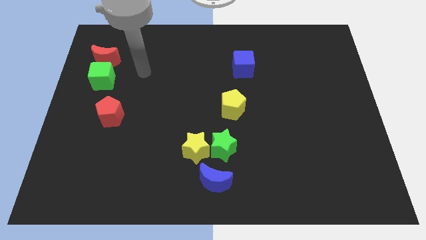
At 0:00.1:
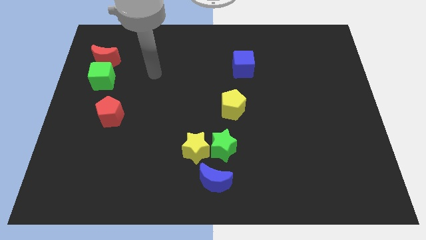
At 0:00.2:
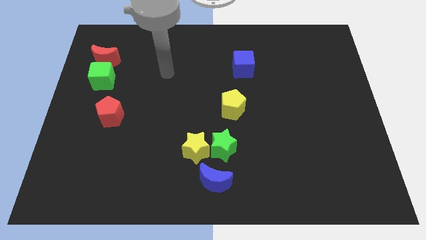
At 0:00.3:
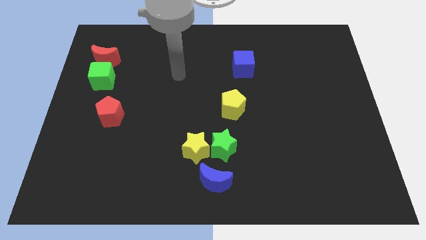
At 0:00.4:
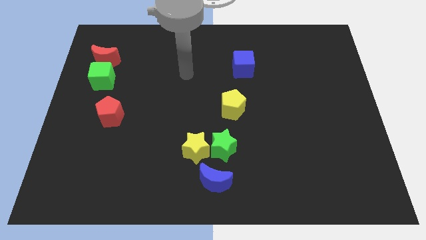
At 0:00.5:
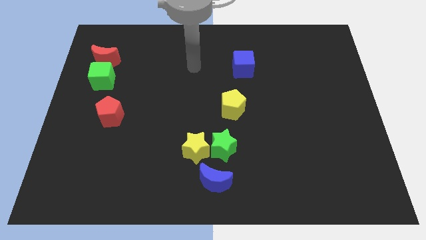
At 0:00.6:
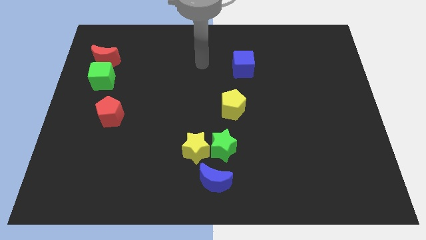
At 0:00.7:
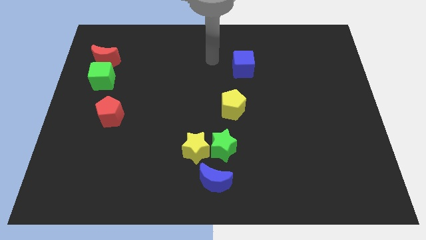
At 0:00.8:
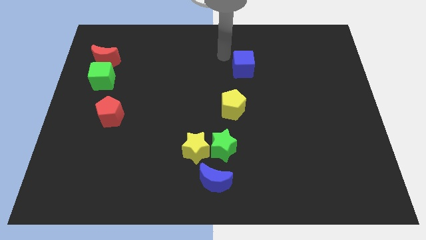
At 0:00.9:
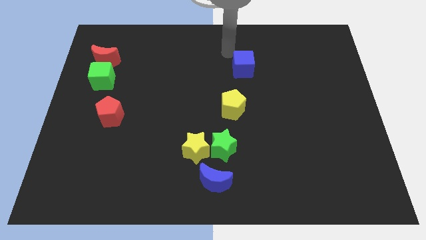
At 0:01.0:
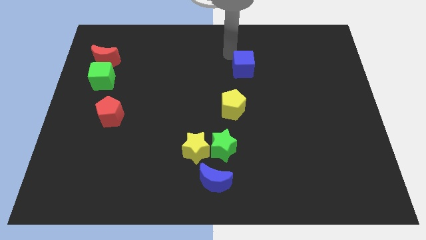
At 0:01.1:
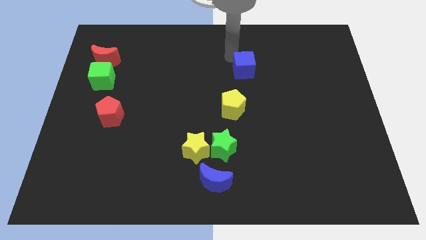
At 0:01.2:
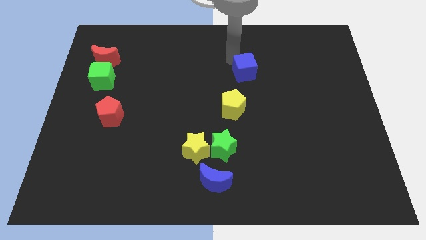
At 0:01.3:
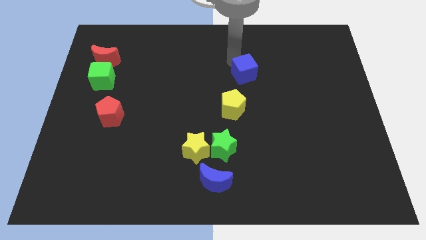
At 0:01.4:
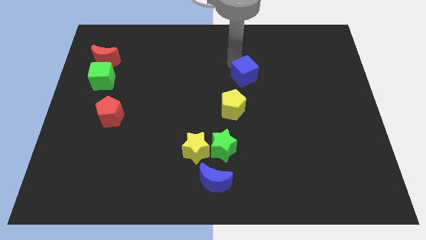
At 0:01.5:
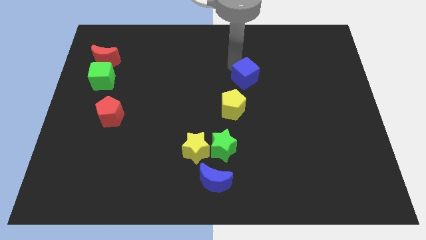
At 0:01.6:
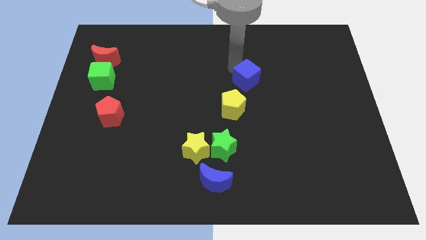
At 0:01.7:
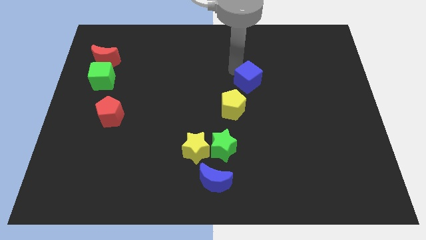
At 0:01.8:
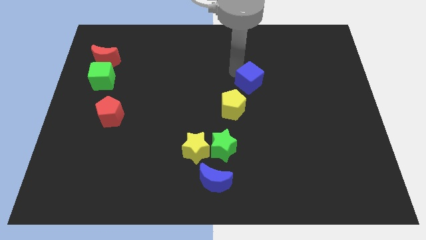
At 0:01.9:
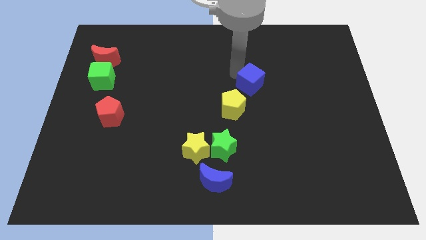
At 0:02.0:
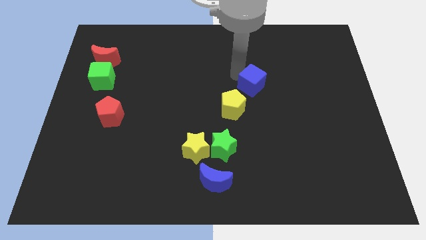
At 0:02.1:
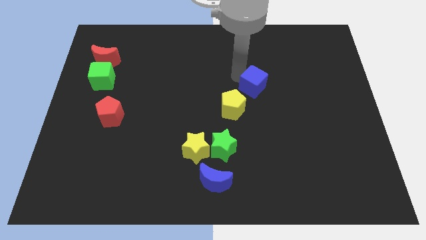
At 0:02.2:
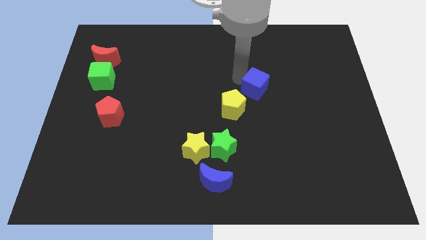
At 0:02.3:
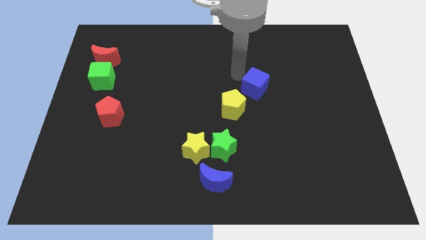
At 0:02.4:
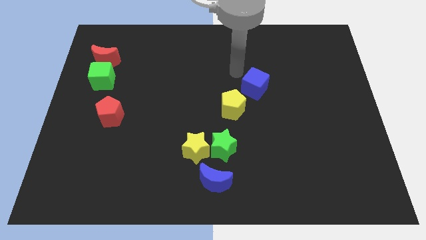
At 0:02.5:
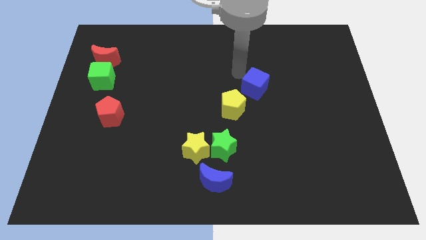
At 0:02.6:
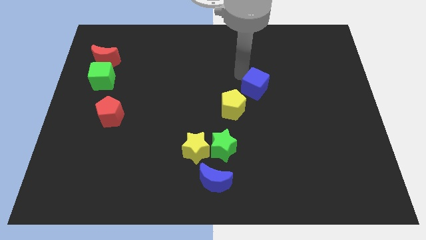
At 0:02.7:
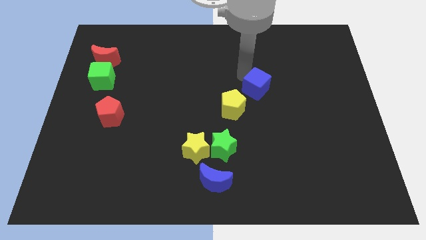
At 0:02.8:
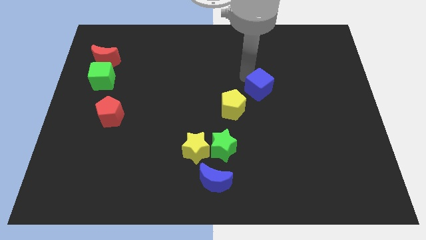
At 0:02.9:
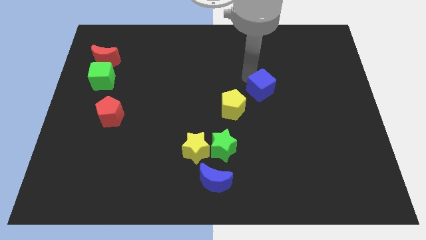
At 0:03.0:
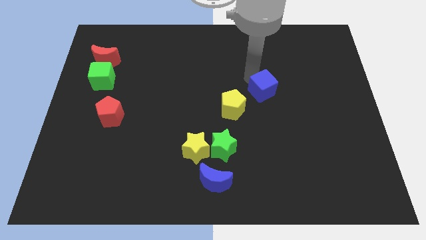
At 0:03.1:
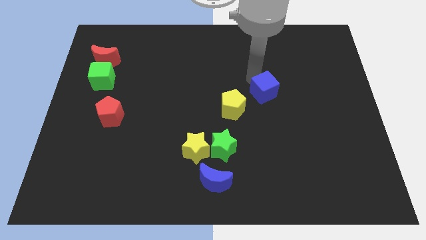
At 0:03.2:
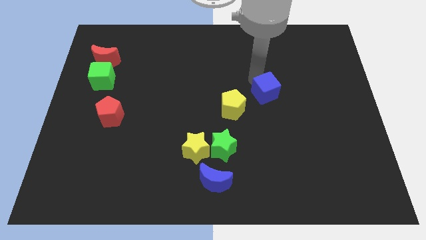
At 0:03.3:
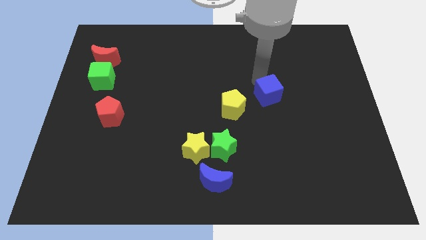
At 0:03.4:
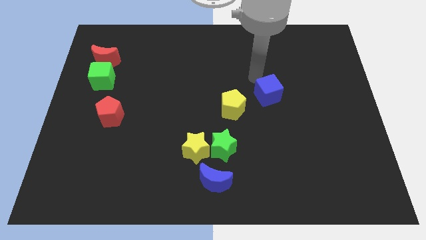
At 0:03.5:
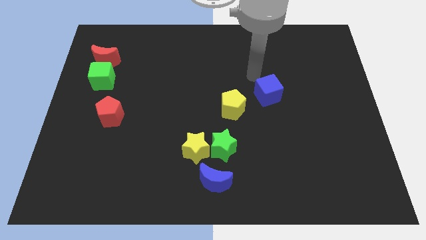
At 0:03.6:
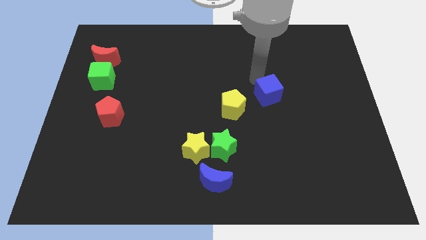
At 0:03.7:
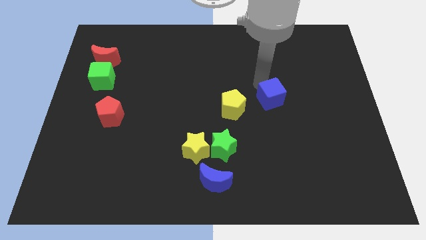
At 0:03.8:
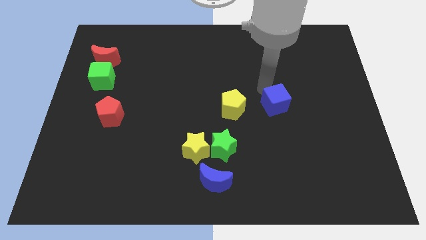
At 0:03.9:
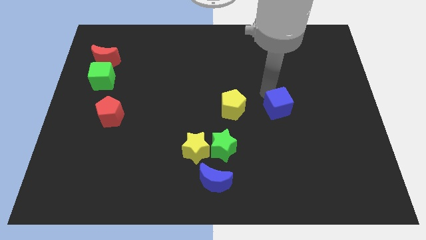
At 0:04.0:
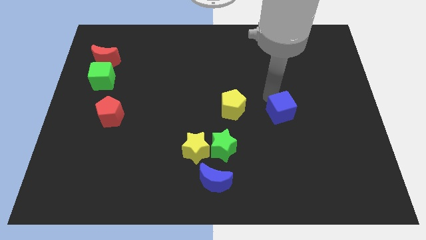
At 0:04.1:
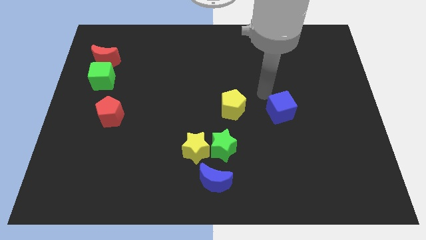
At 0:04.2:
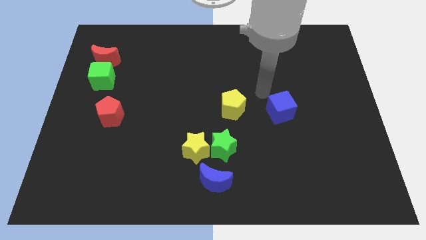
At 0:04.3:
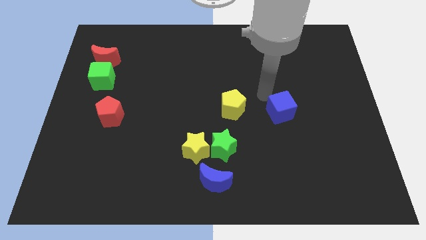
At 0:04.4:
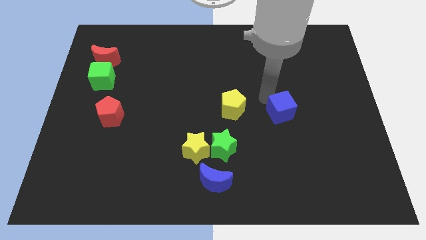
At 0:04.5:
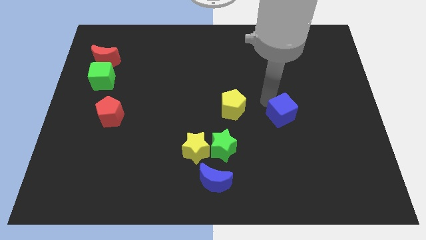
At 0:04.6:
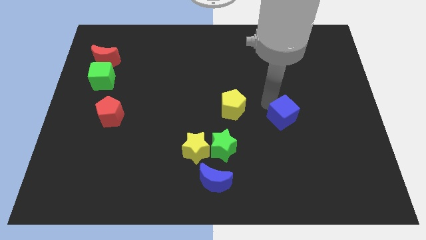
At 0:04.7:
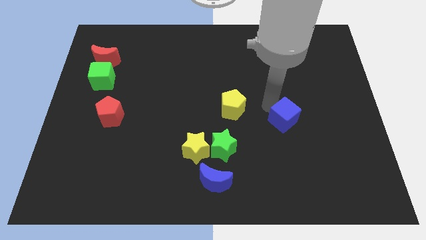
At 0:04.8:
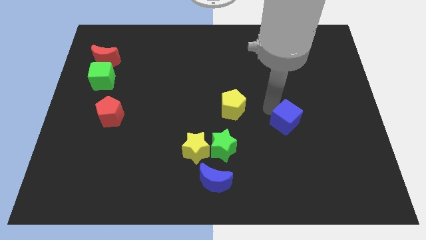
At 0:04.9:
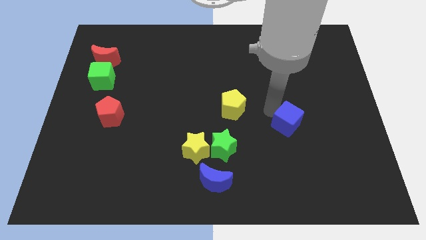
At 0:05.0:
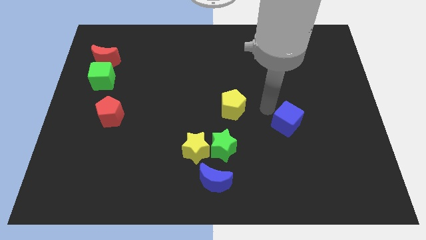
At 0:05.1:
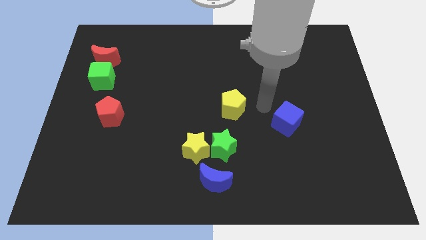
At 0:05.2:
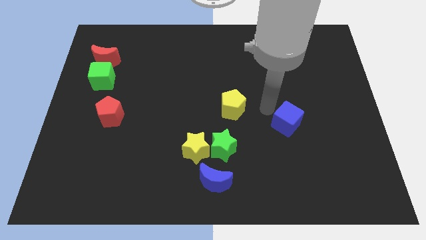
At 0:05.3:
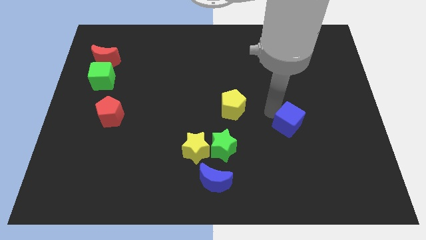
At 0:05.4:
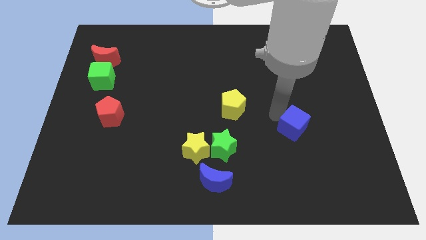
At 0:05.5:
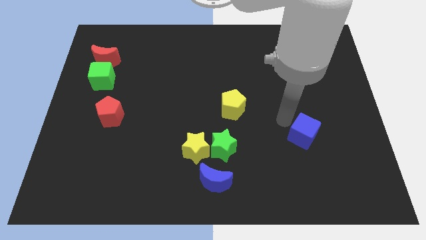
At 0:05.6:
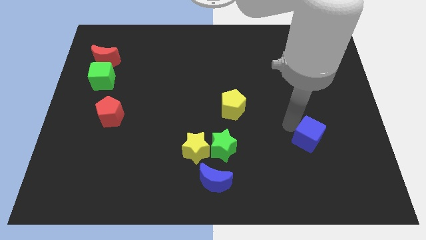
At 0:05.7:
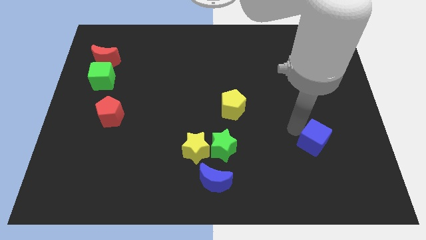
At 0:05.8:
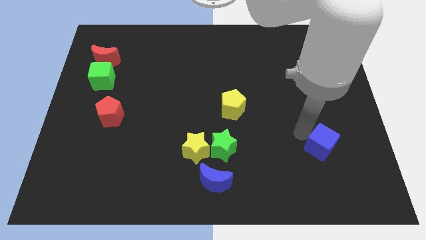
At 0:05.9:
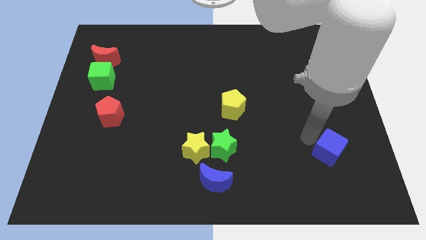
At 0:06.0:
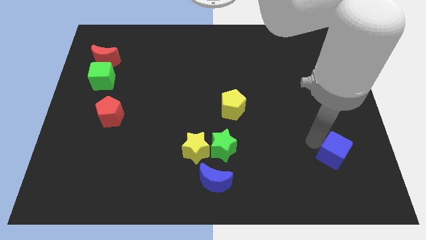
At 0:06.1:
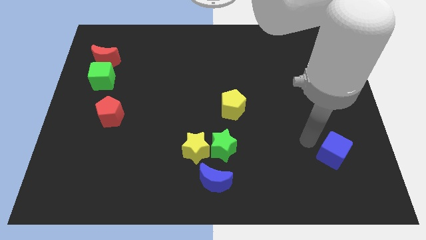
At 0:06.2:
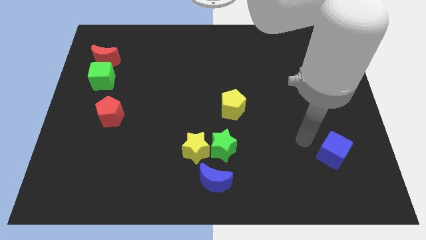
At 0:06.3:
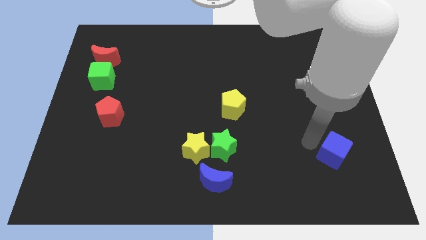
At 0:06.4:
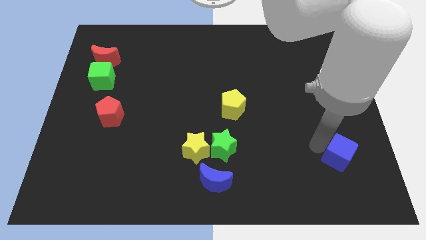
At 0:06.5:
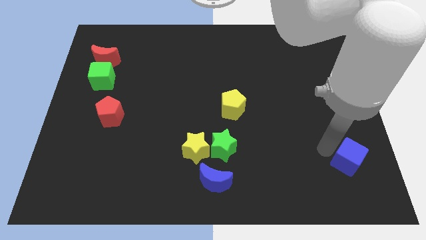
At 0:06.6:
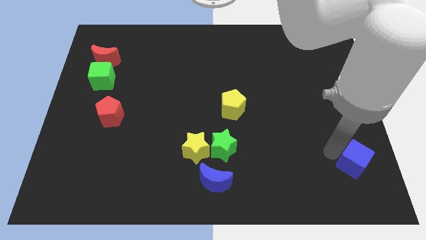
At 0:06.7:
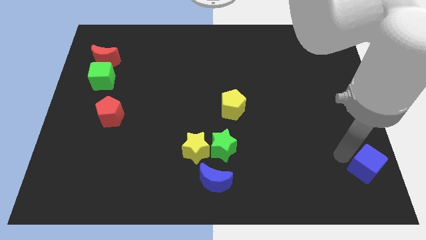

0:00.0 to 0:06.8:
slide the blue cube to the bottom right

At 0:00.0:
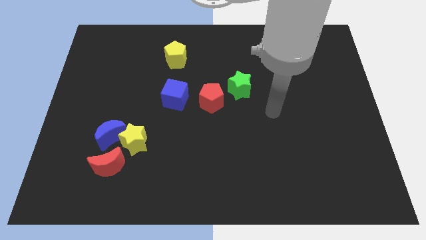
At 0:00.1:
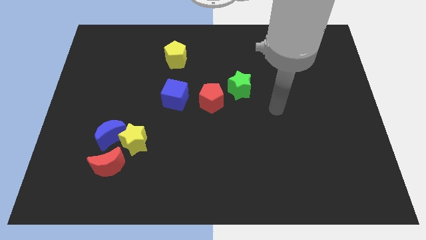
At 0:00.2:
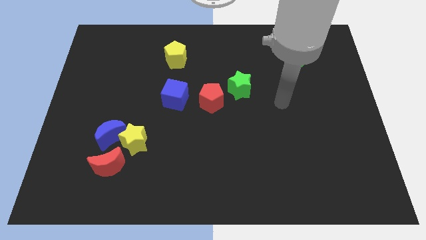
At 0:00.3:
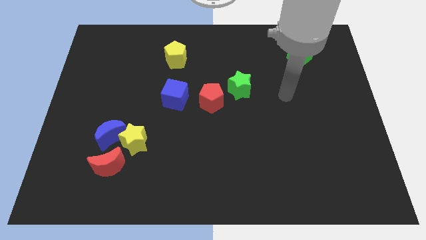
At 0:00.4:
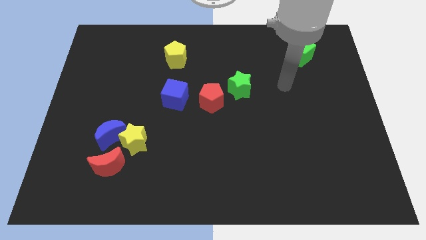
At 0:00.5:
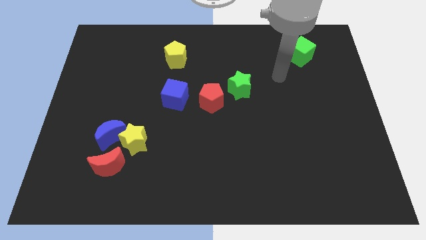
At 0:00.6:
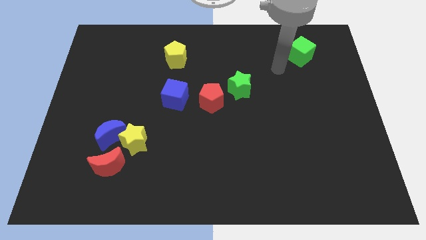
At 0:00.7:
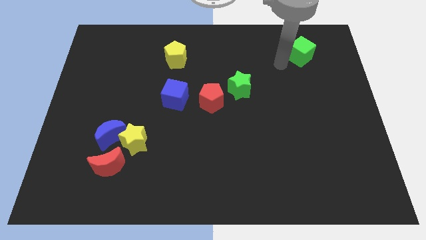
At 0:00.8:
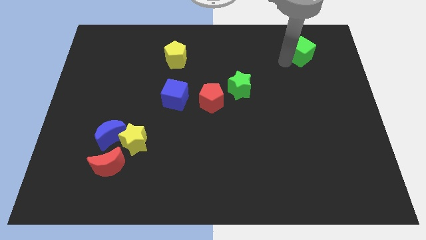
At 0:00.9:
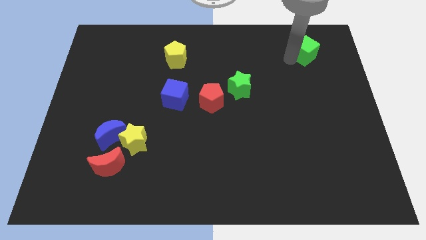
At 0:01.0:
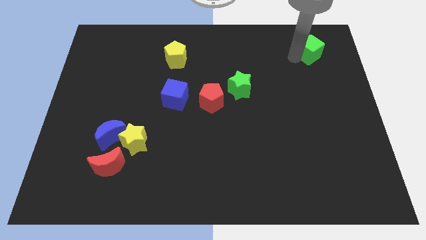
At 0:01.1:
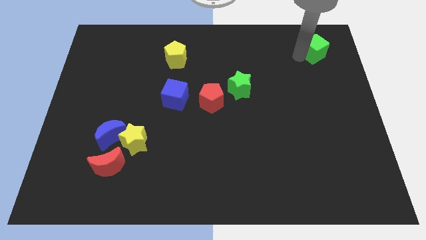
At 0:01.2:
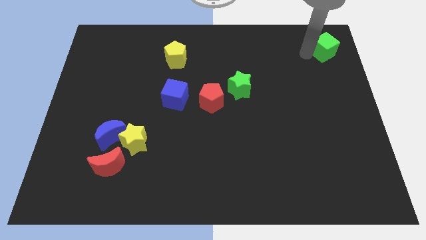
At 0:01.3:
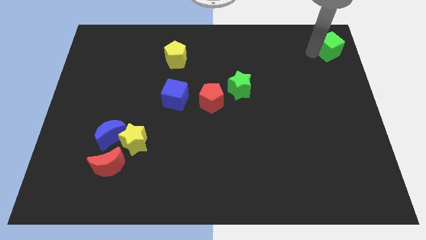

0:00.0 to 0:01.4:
push the green cube to the top right corner
